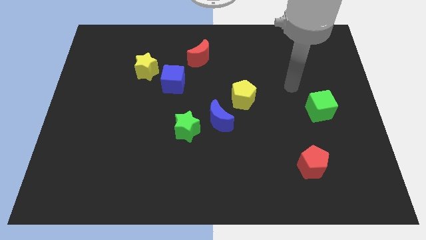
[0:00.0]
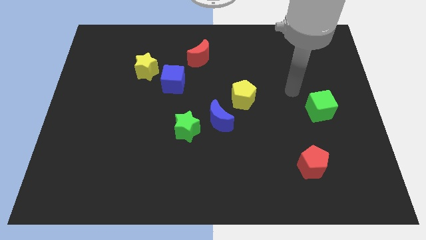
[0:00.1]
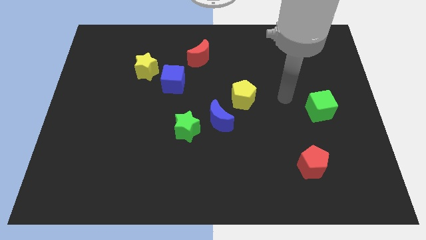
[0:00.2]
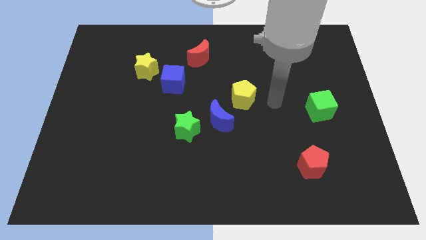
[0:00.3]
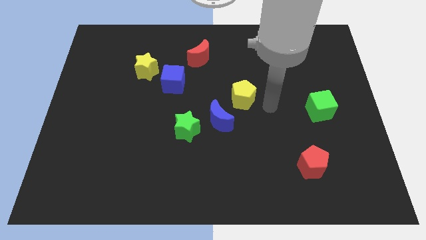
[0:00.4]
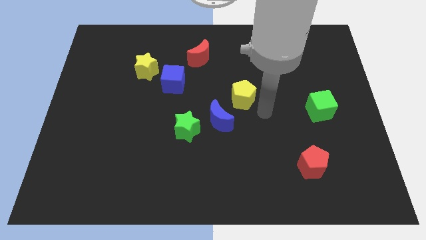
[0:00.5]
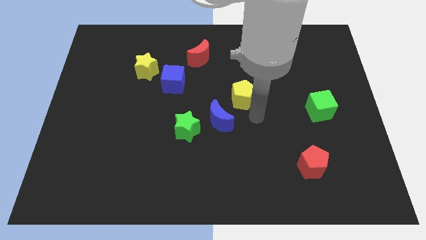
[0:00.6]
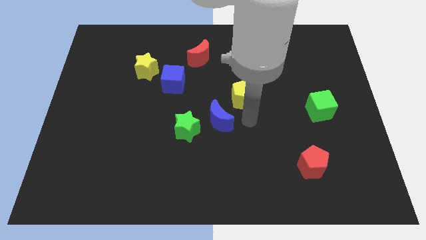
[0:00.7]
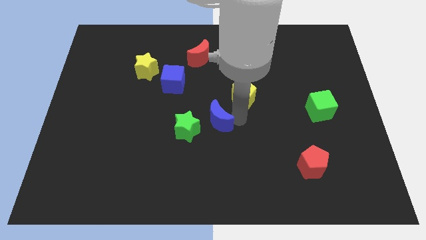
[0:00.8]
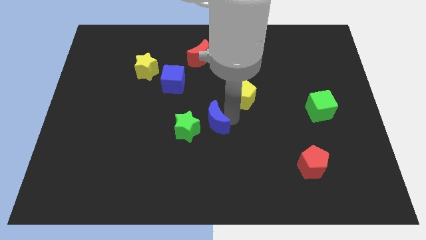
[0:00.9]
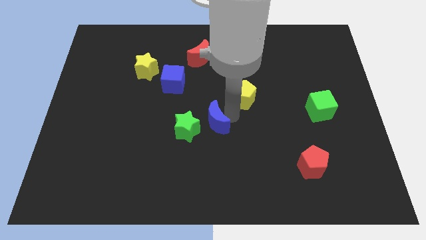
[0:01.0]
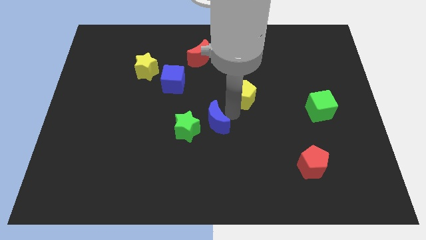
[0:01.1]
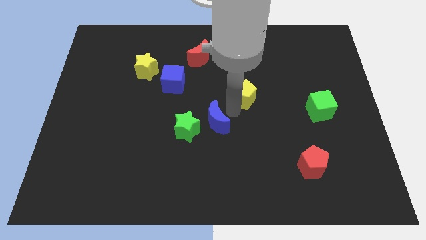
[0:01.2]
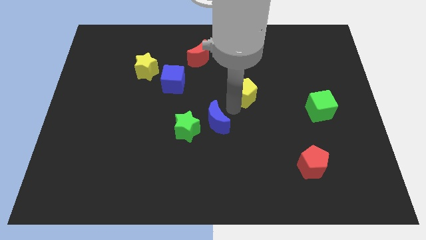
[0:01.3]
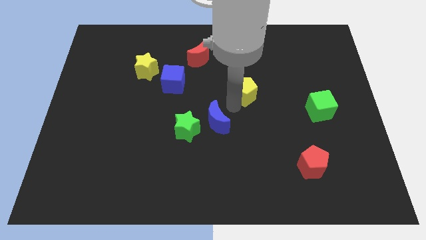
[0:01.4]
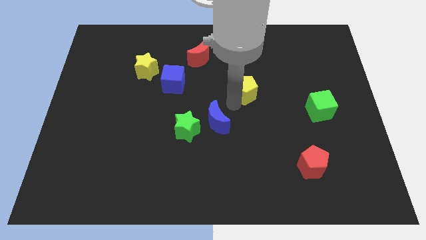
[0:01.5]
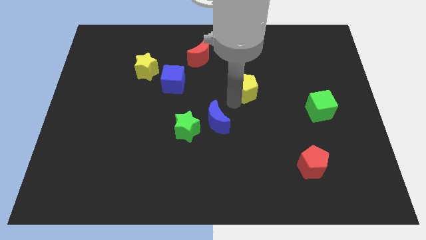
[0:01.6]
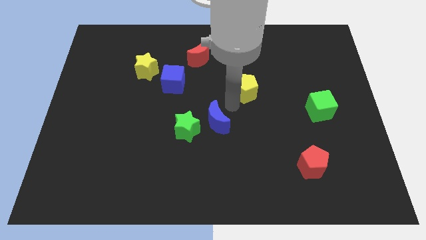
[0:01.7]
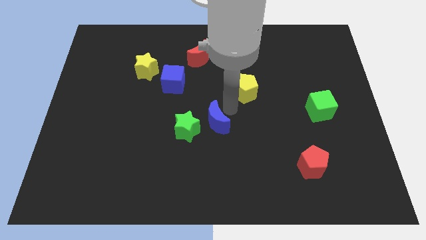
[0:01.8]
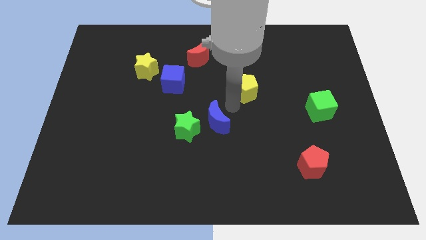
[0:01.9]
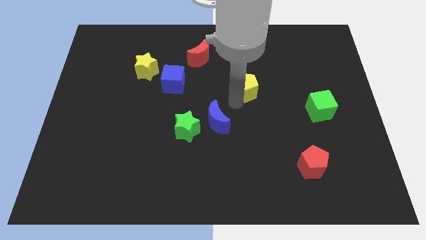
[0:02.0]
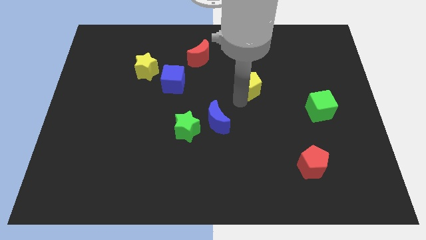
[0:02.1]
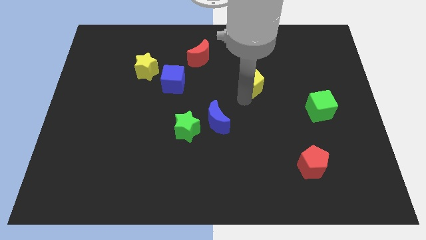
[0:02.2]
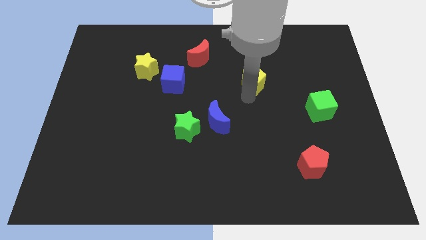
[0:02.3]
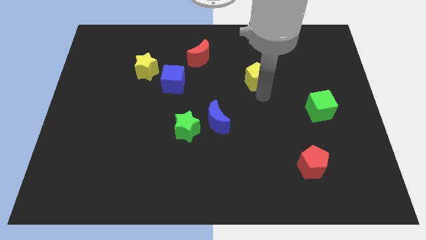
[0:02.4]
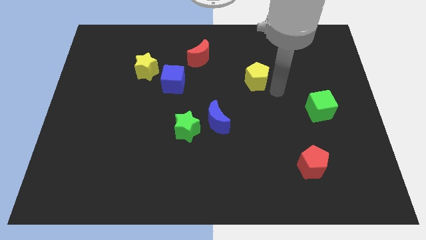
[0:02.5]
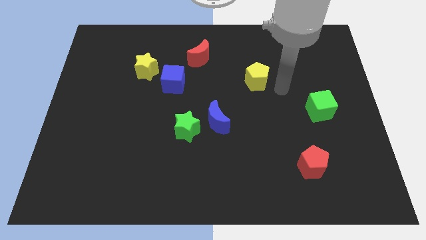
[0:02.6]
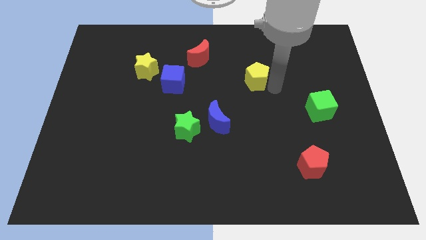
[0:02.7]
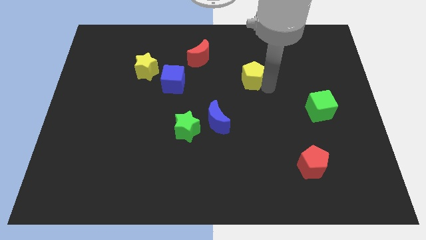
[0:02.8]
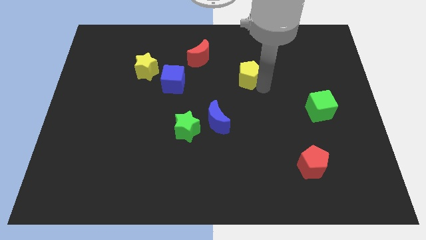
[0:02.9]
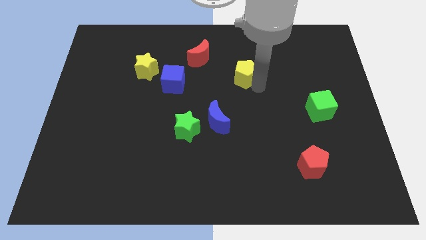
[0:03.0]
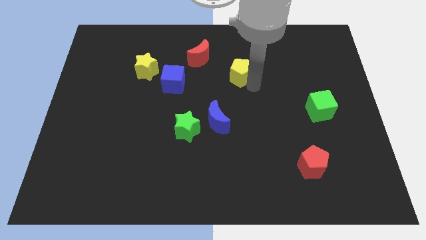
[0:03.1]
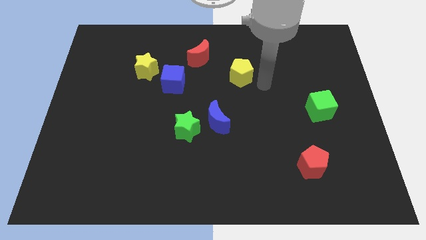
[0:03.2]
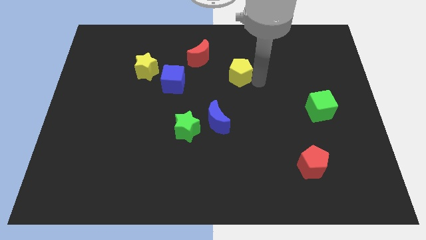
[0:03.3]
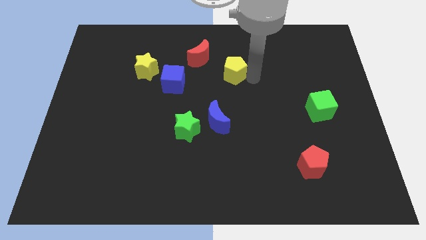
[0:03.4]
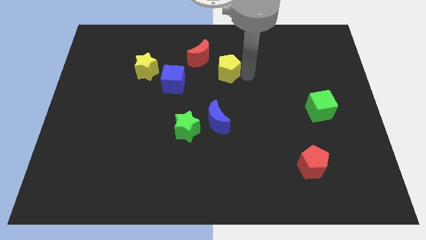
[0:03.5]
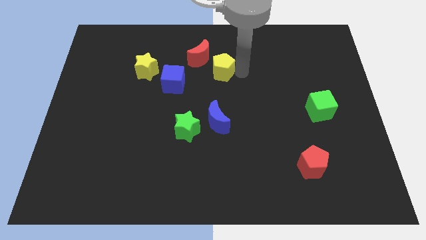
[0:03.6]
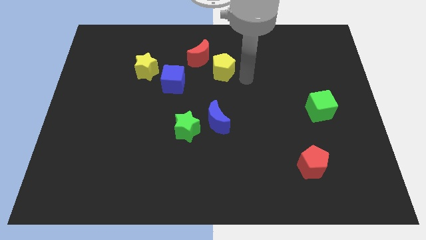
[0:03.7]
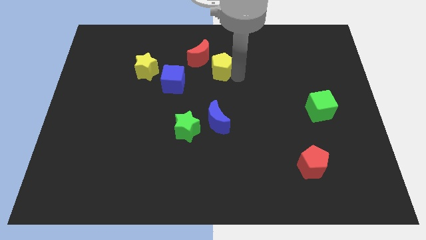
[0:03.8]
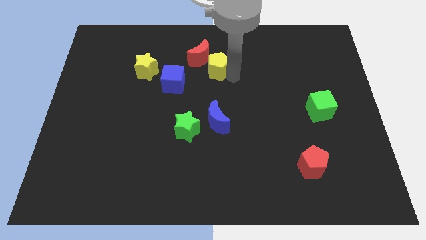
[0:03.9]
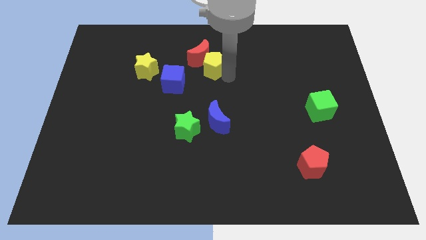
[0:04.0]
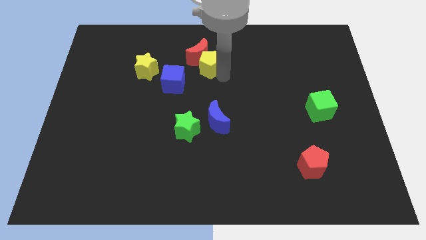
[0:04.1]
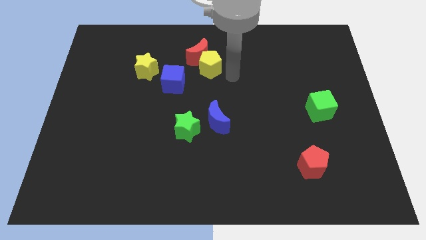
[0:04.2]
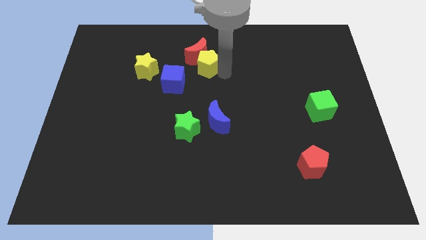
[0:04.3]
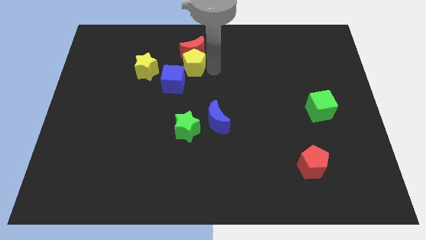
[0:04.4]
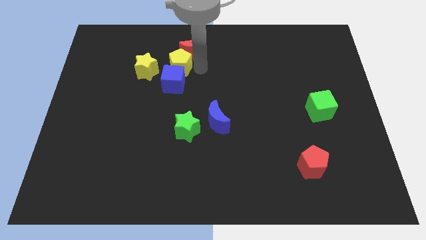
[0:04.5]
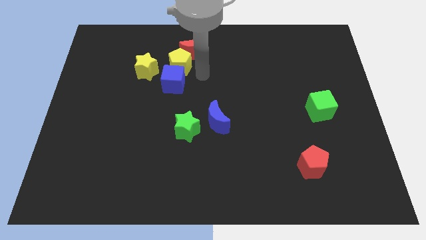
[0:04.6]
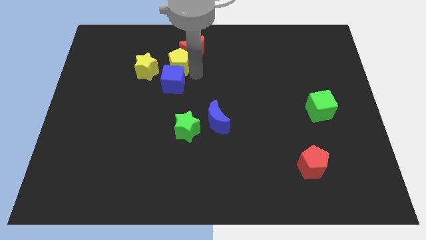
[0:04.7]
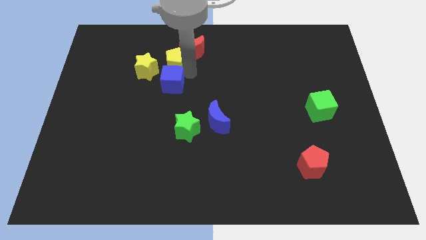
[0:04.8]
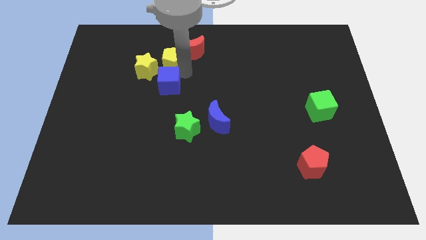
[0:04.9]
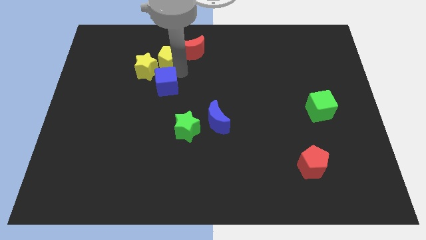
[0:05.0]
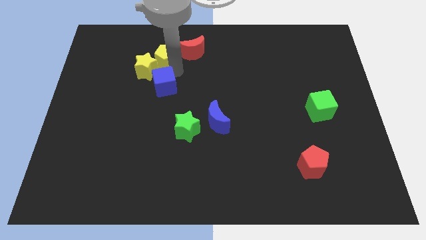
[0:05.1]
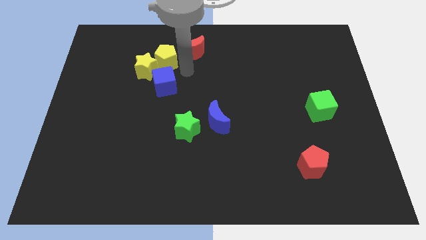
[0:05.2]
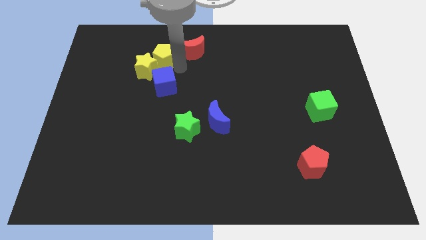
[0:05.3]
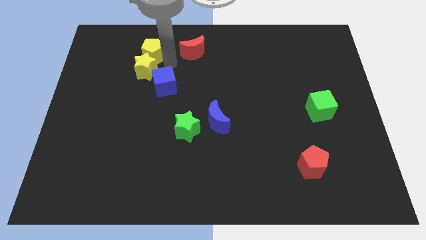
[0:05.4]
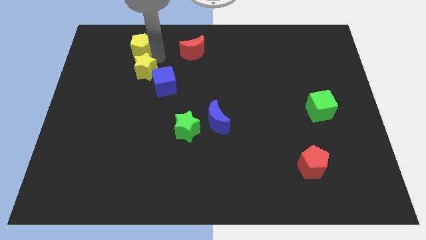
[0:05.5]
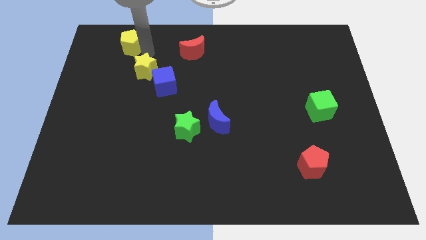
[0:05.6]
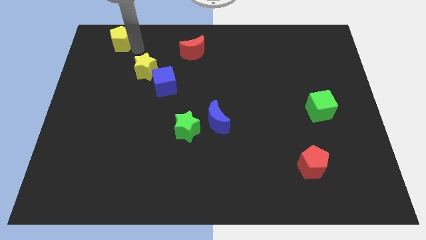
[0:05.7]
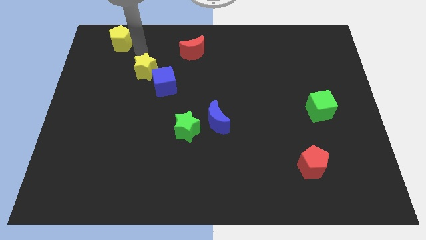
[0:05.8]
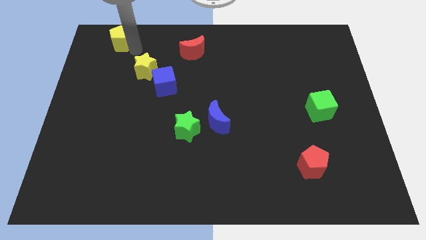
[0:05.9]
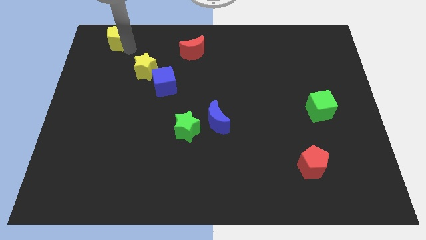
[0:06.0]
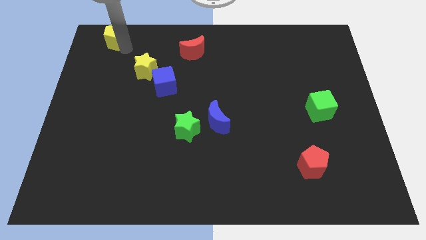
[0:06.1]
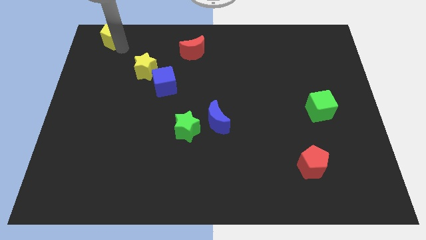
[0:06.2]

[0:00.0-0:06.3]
push the yellow pentagon to the top left
